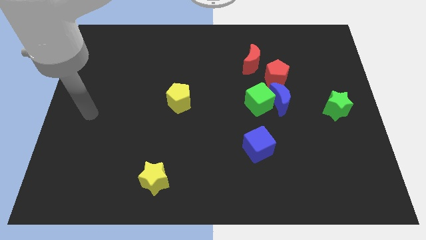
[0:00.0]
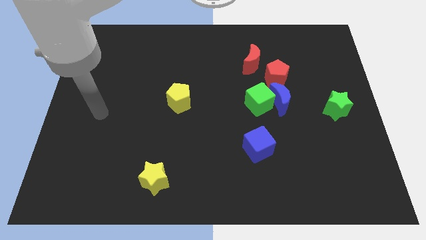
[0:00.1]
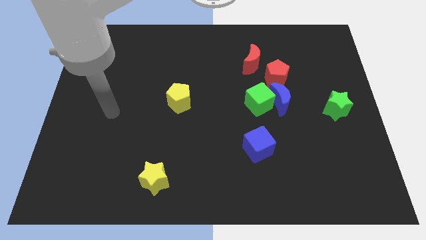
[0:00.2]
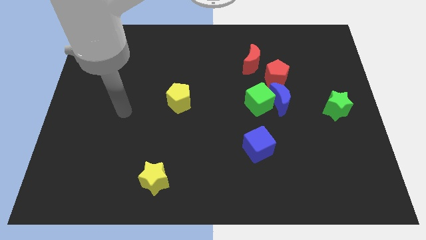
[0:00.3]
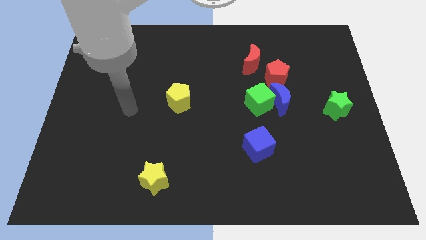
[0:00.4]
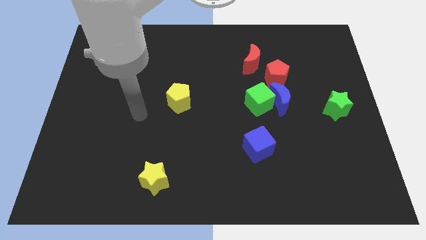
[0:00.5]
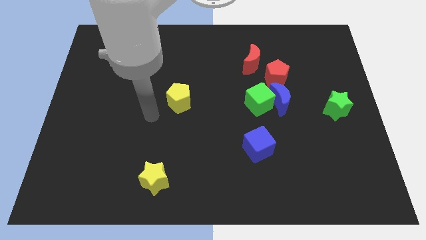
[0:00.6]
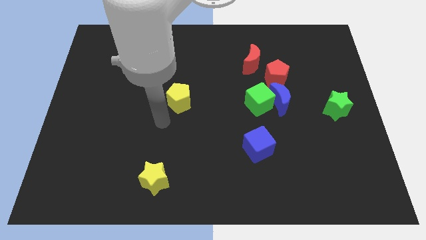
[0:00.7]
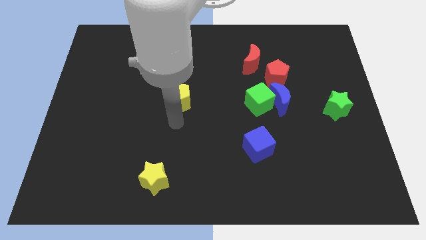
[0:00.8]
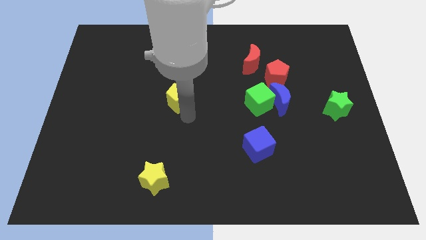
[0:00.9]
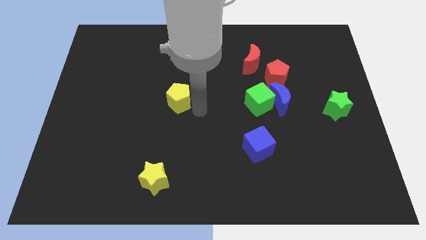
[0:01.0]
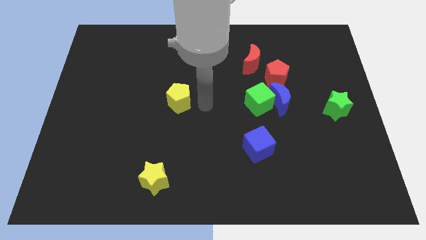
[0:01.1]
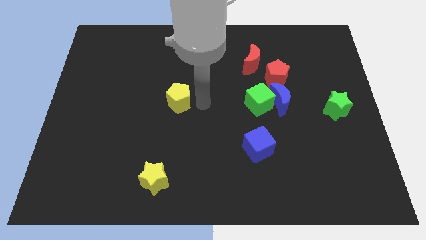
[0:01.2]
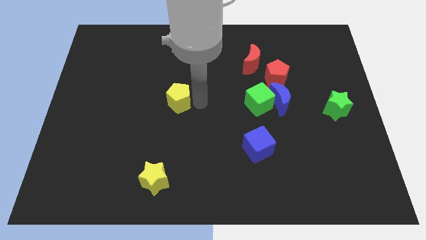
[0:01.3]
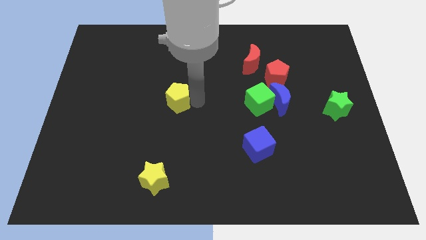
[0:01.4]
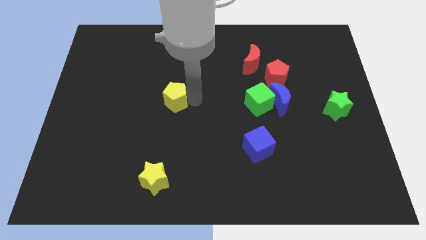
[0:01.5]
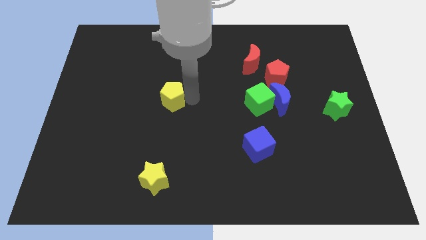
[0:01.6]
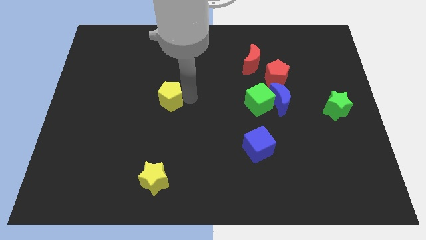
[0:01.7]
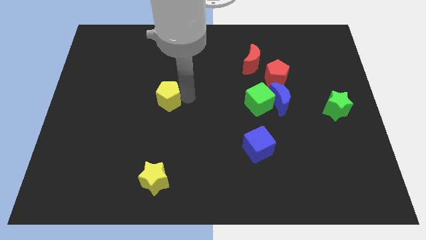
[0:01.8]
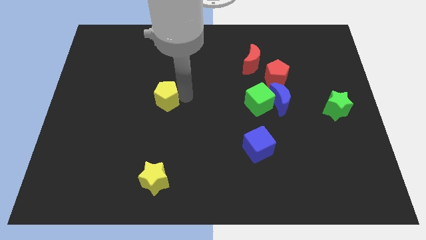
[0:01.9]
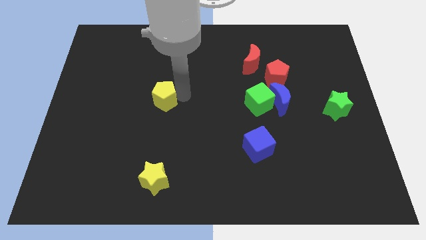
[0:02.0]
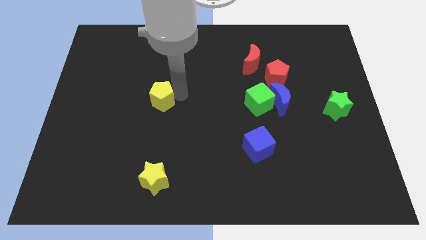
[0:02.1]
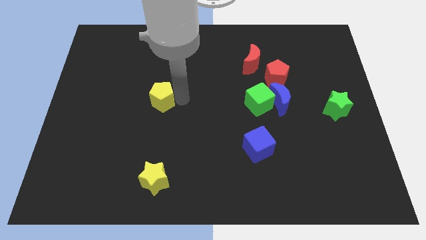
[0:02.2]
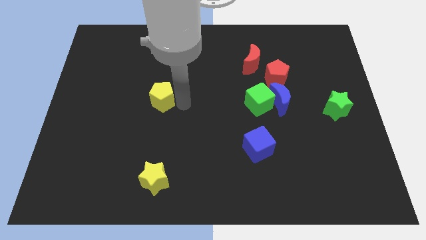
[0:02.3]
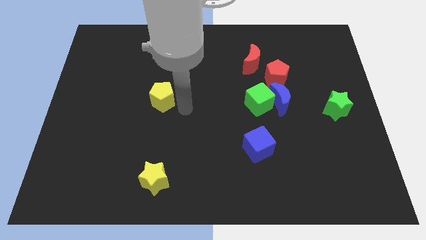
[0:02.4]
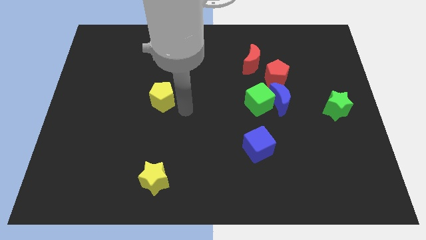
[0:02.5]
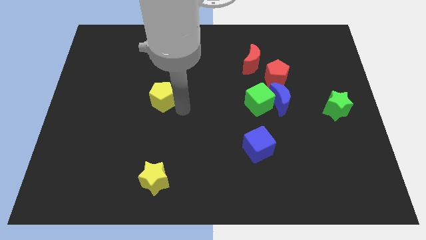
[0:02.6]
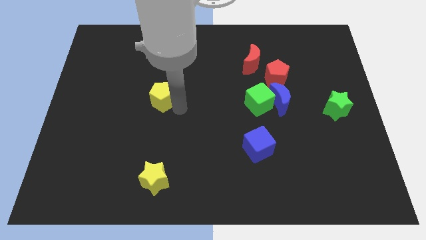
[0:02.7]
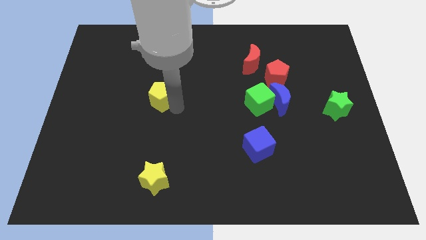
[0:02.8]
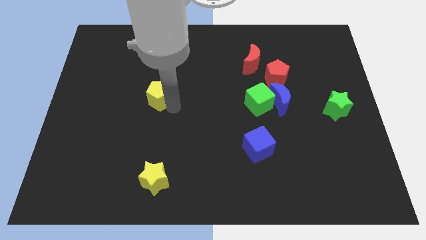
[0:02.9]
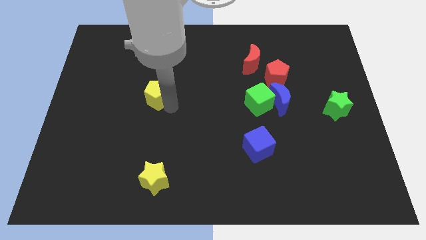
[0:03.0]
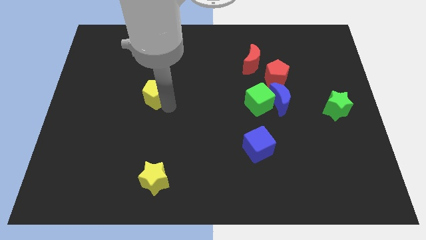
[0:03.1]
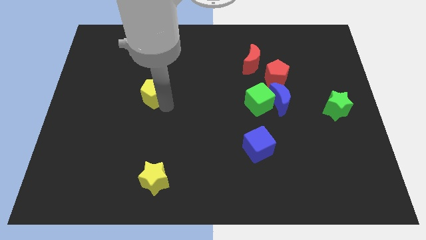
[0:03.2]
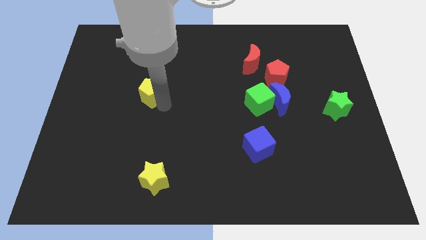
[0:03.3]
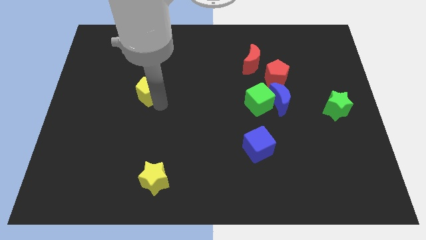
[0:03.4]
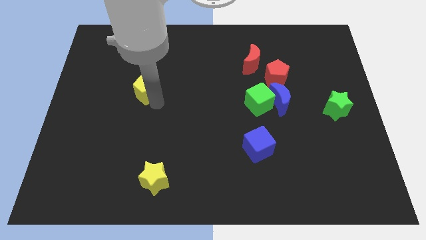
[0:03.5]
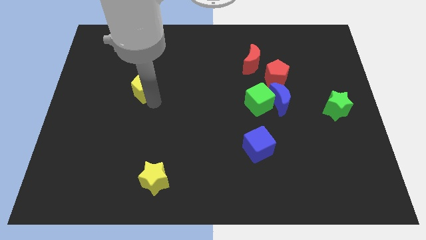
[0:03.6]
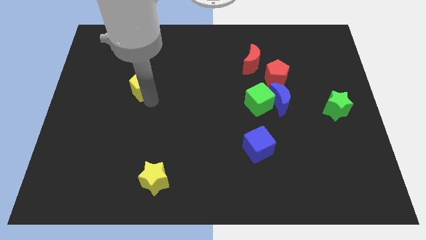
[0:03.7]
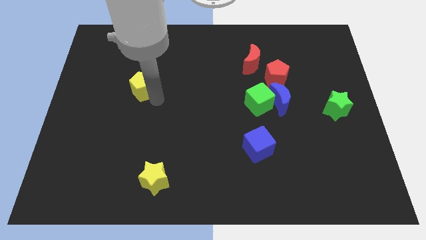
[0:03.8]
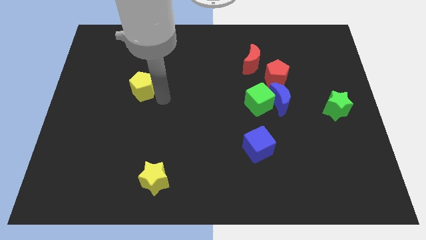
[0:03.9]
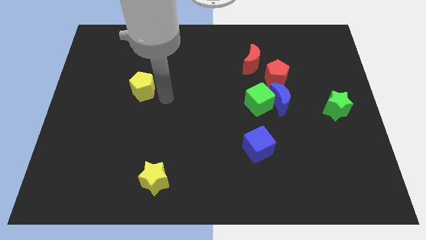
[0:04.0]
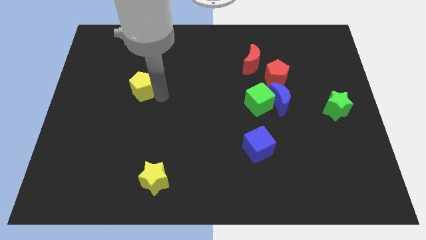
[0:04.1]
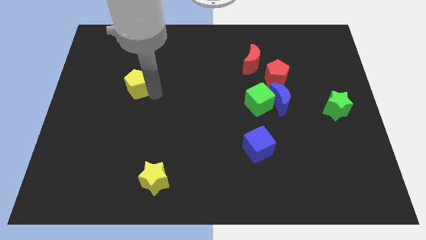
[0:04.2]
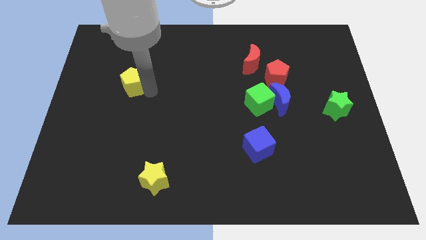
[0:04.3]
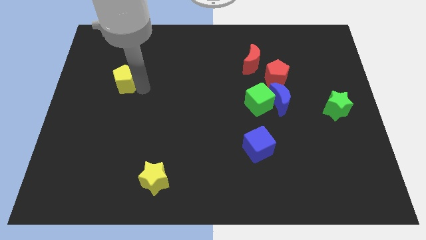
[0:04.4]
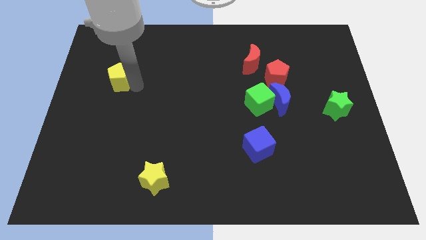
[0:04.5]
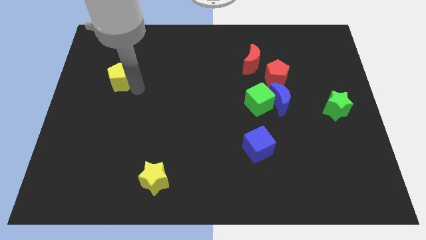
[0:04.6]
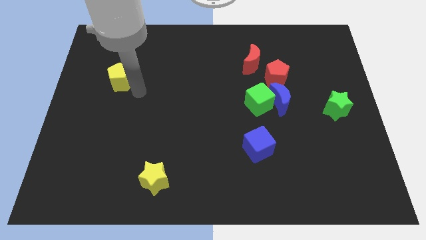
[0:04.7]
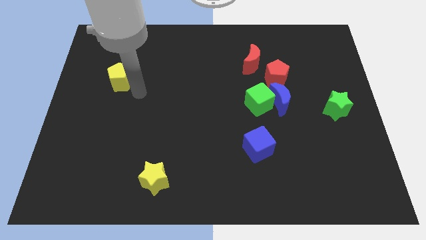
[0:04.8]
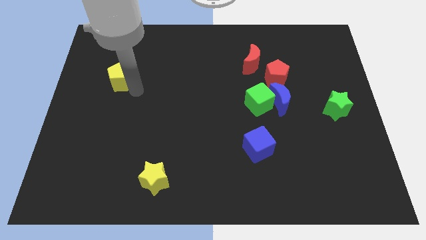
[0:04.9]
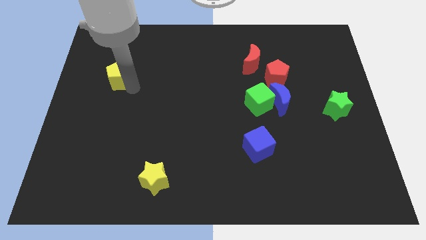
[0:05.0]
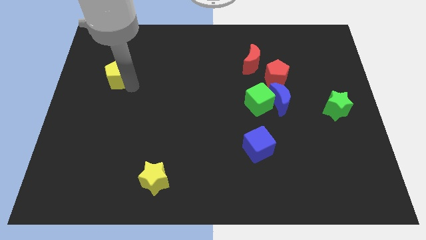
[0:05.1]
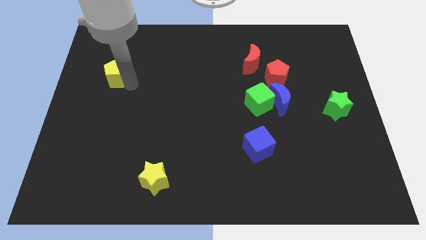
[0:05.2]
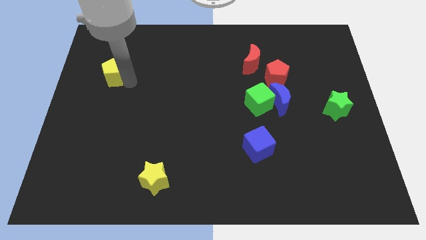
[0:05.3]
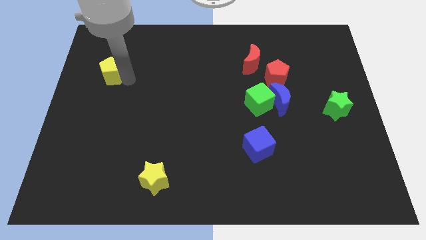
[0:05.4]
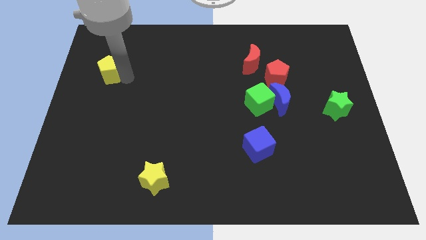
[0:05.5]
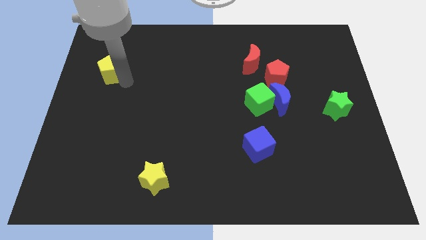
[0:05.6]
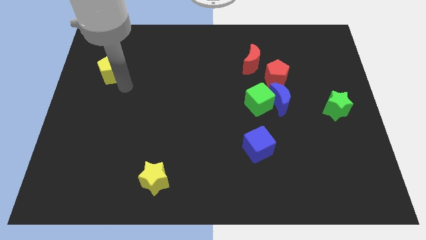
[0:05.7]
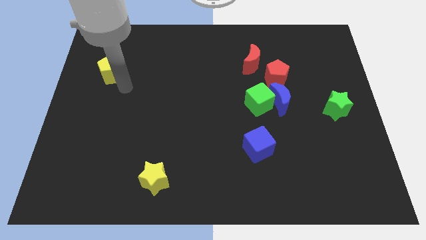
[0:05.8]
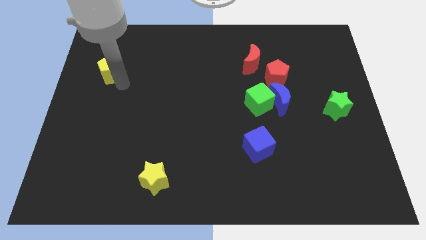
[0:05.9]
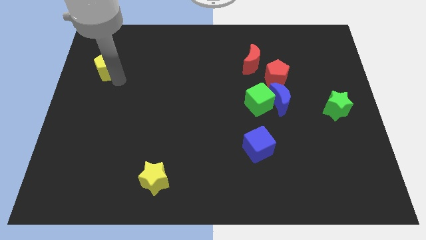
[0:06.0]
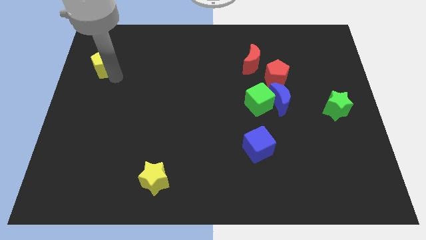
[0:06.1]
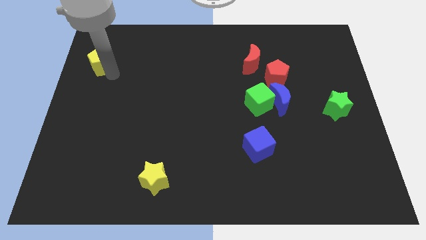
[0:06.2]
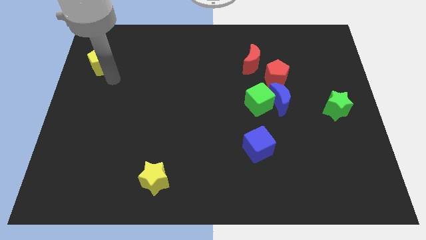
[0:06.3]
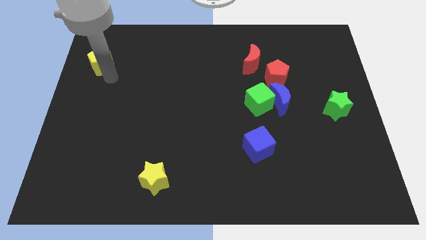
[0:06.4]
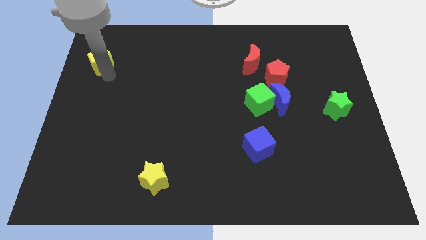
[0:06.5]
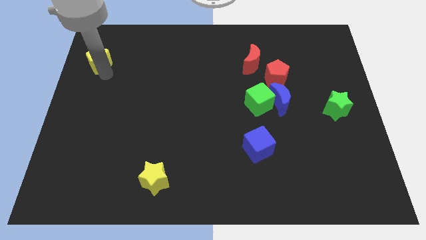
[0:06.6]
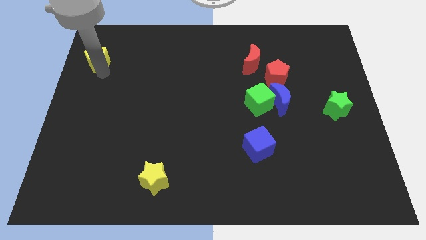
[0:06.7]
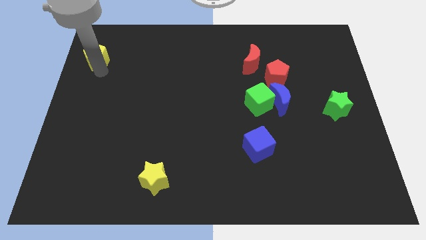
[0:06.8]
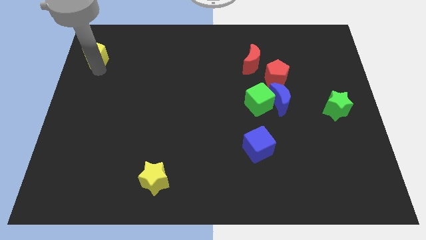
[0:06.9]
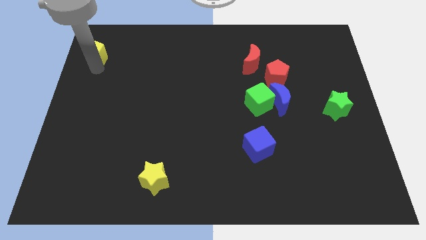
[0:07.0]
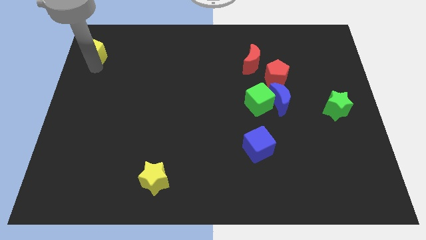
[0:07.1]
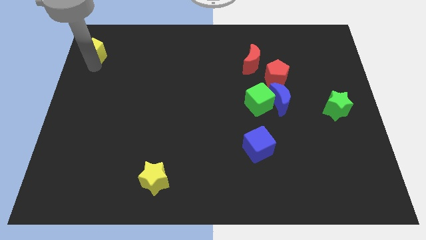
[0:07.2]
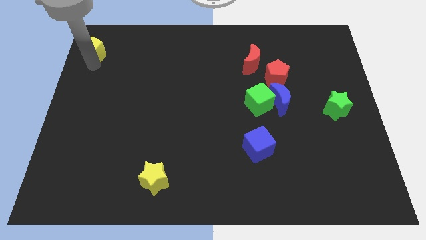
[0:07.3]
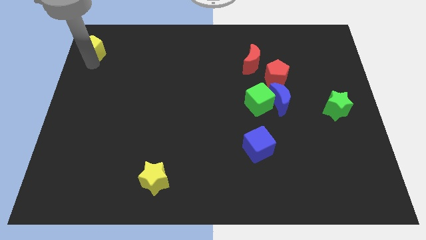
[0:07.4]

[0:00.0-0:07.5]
push the yellow pentagon to the top left of the board
